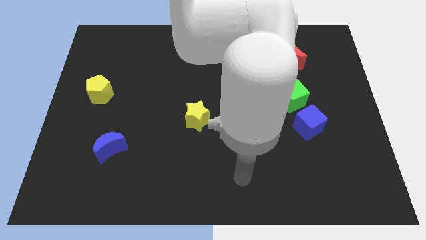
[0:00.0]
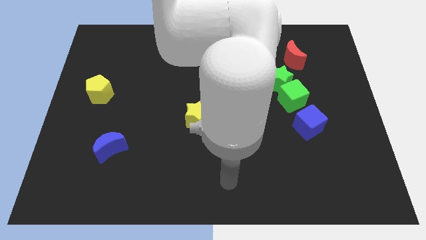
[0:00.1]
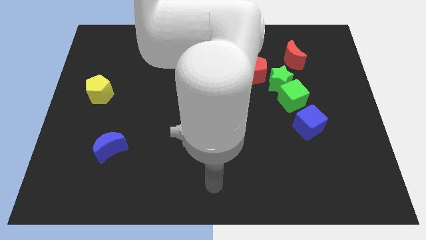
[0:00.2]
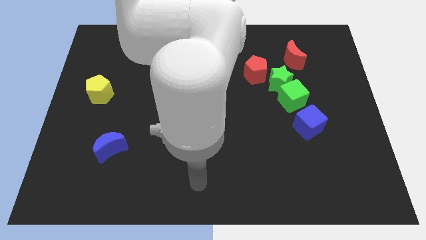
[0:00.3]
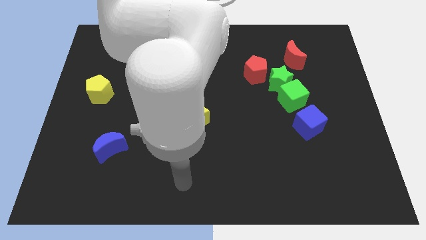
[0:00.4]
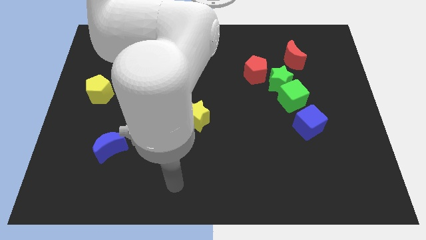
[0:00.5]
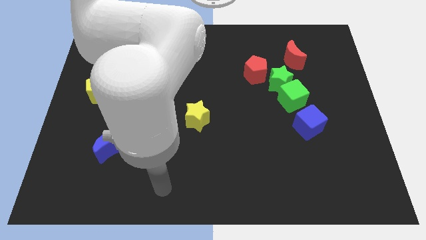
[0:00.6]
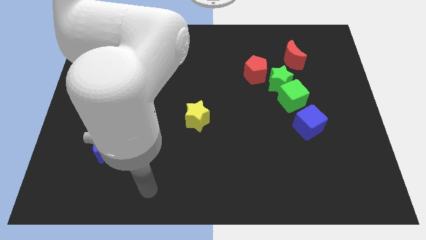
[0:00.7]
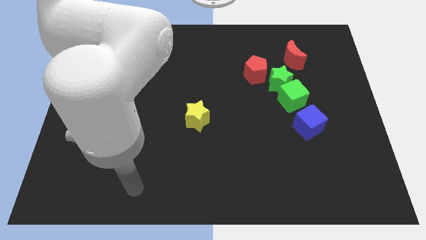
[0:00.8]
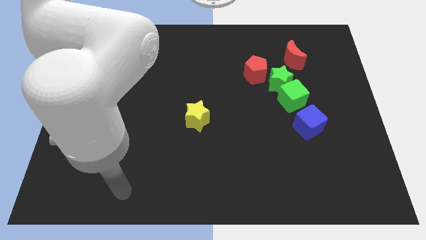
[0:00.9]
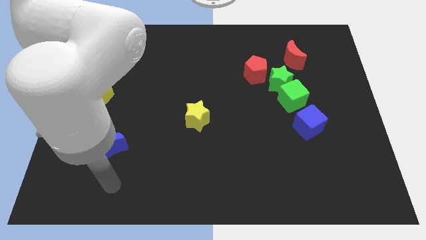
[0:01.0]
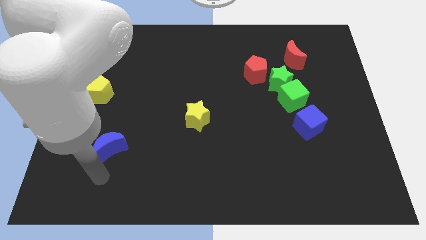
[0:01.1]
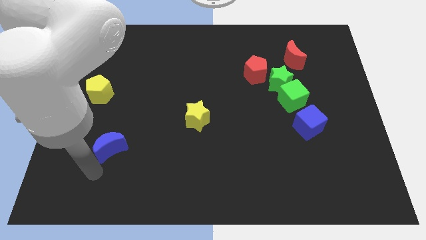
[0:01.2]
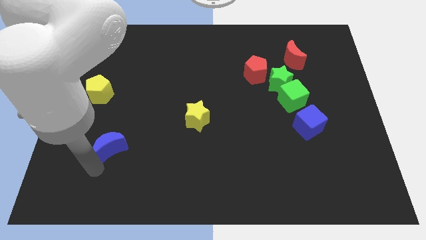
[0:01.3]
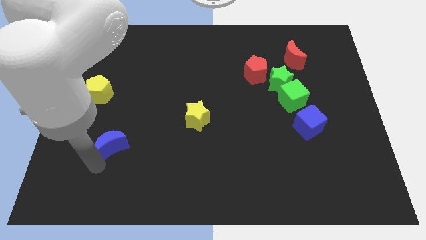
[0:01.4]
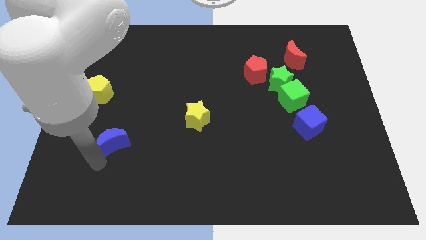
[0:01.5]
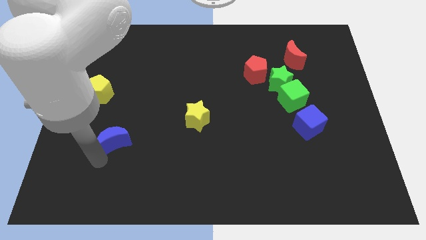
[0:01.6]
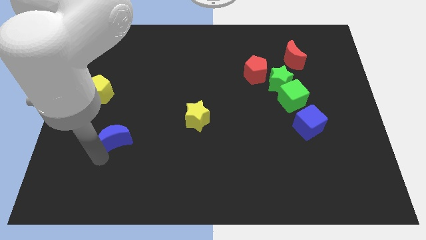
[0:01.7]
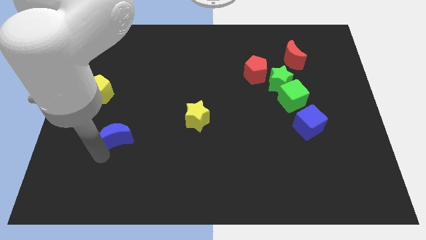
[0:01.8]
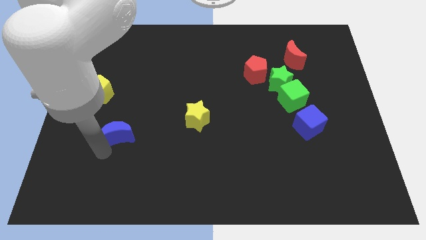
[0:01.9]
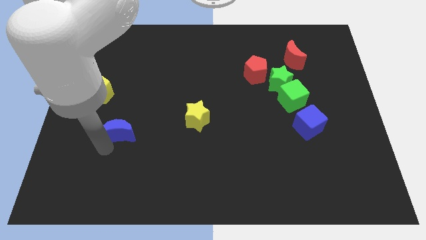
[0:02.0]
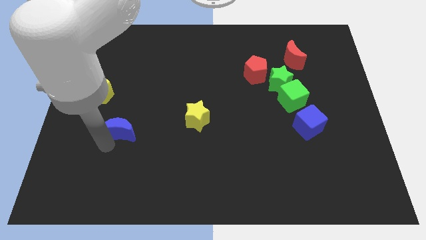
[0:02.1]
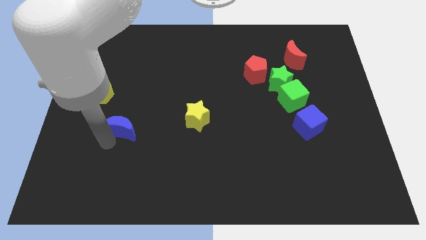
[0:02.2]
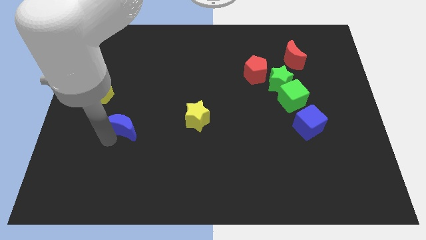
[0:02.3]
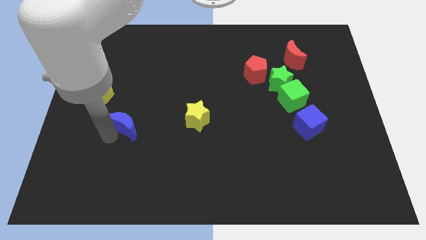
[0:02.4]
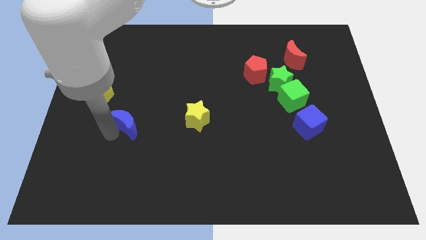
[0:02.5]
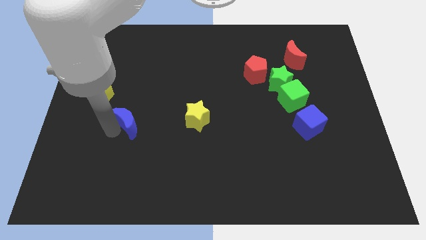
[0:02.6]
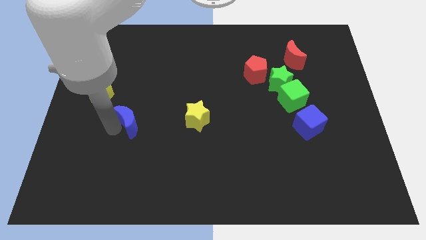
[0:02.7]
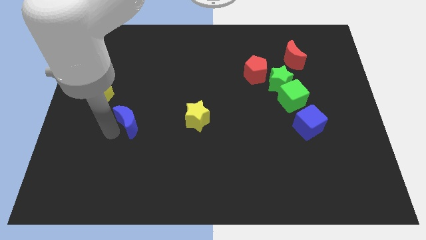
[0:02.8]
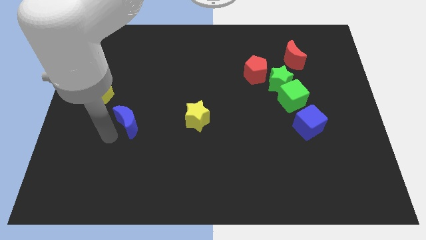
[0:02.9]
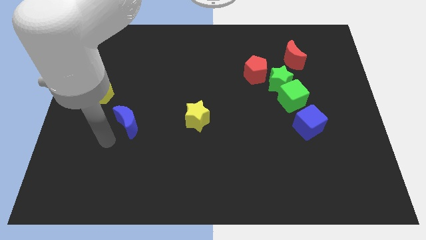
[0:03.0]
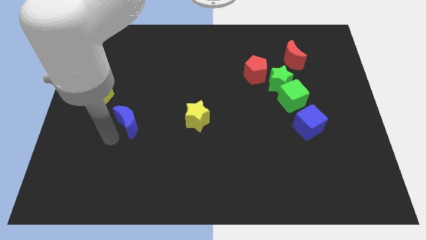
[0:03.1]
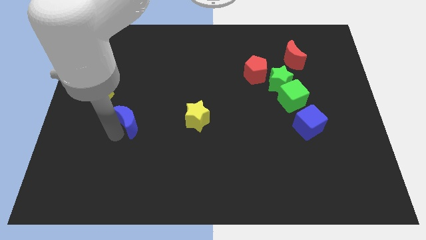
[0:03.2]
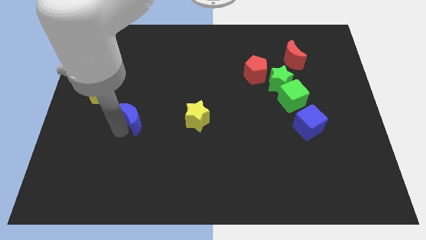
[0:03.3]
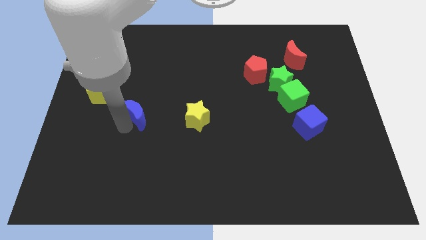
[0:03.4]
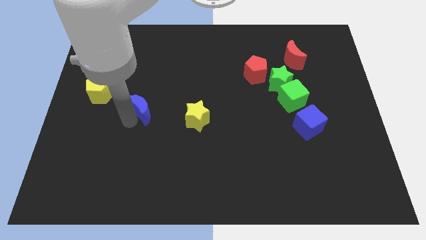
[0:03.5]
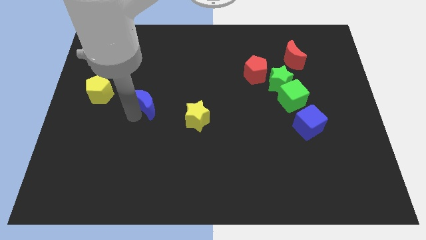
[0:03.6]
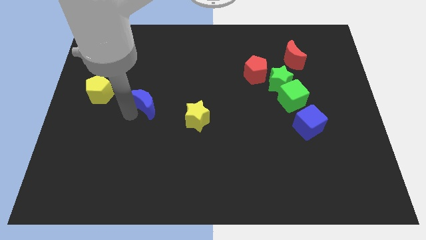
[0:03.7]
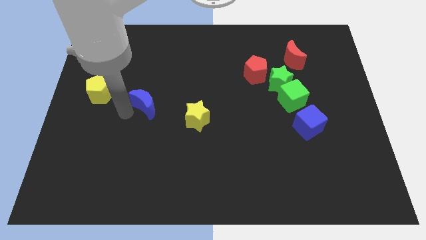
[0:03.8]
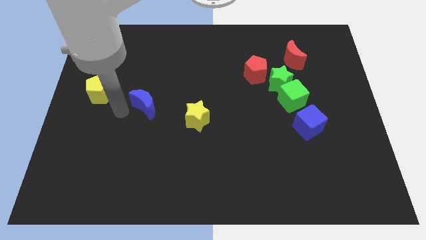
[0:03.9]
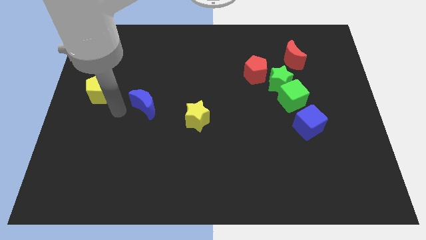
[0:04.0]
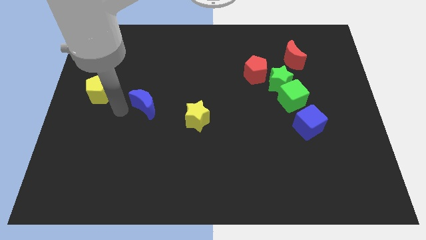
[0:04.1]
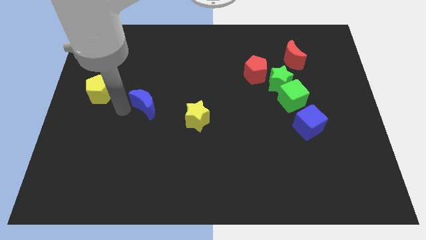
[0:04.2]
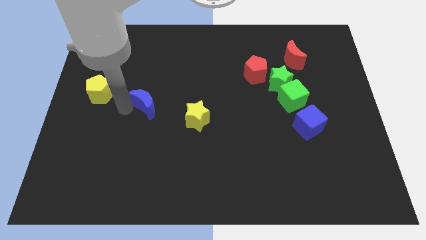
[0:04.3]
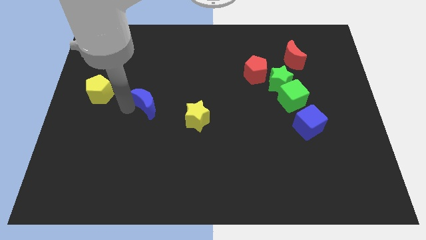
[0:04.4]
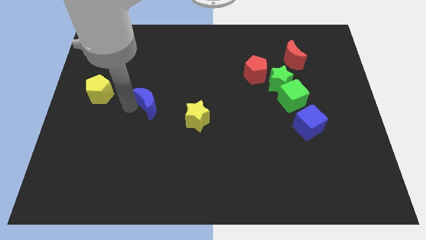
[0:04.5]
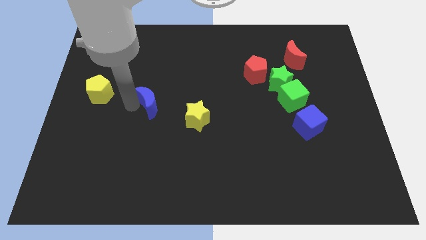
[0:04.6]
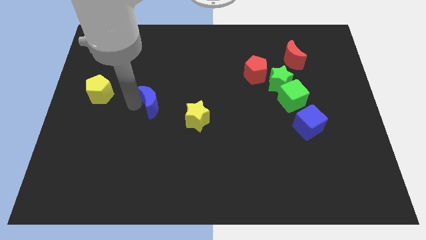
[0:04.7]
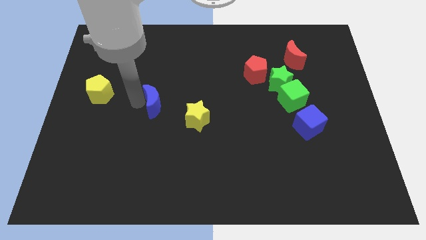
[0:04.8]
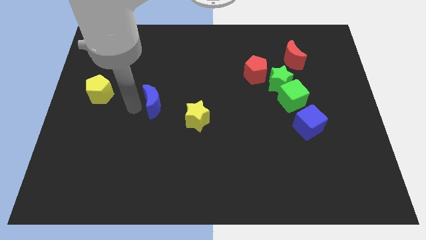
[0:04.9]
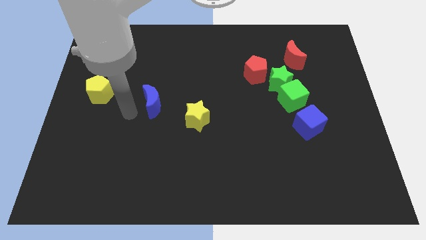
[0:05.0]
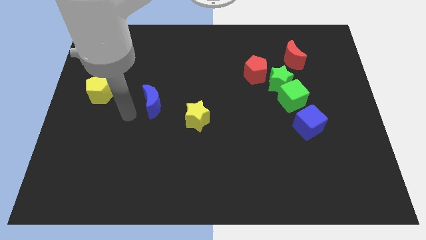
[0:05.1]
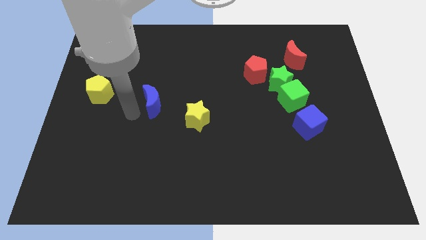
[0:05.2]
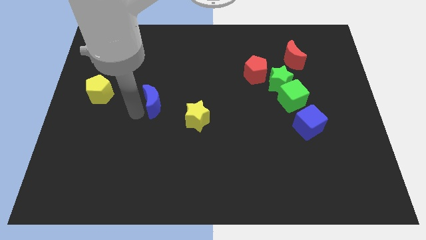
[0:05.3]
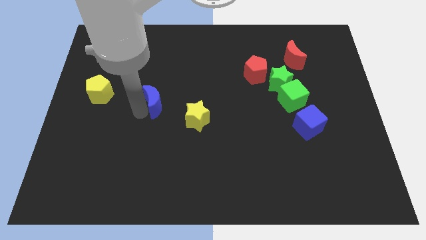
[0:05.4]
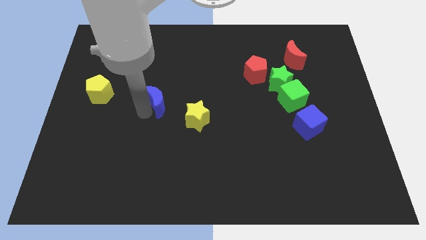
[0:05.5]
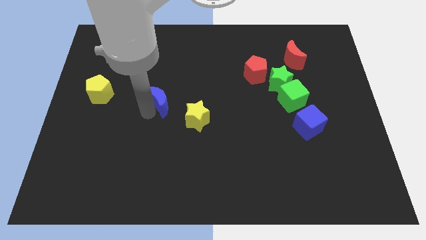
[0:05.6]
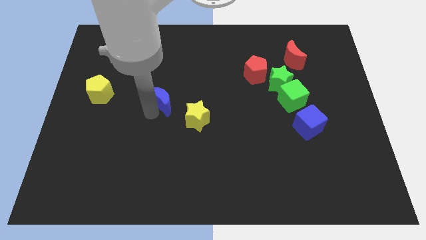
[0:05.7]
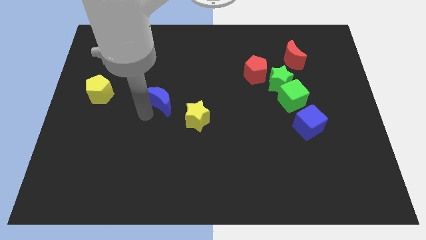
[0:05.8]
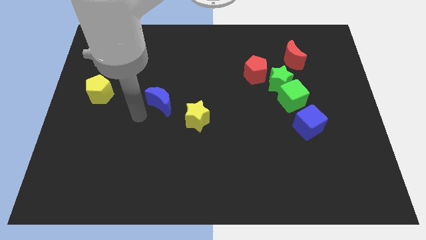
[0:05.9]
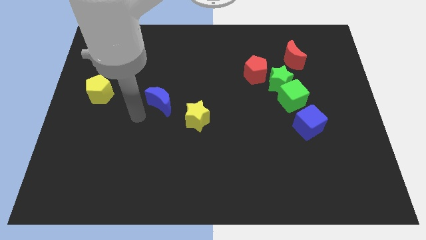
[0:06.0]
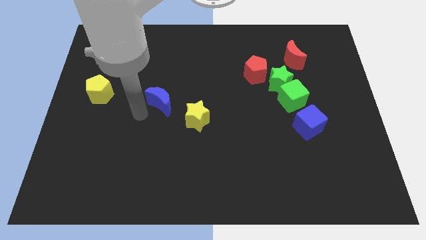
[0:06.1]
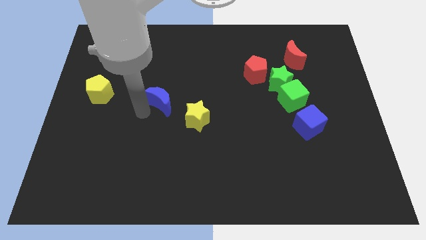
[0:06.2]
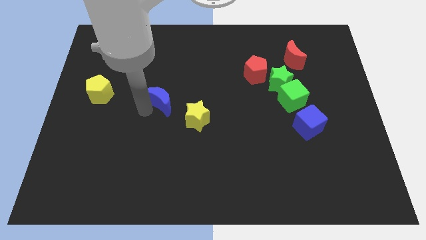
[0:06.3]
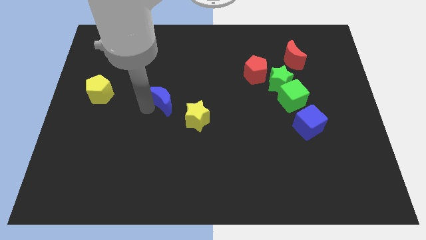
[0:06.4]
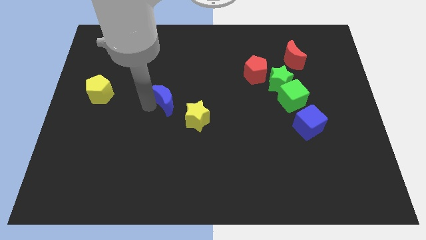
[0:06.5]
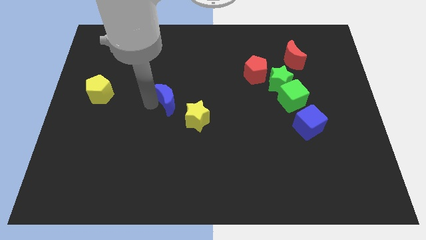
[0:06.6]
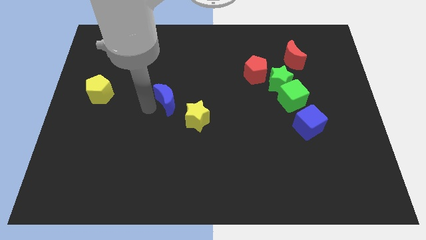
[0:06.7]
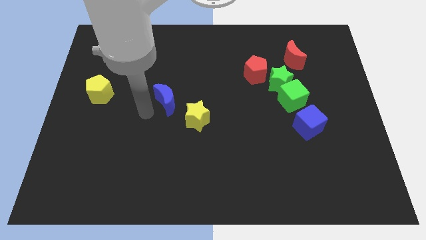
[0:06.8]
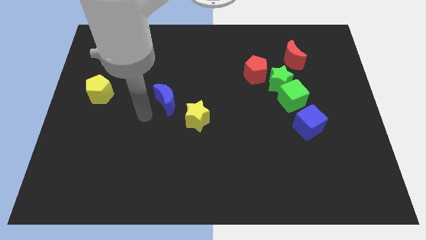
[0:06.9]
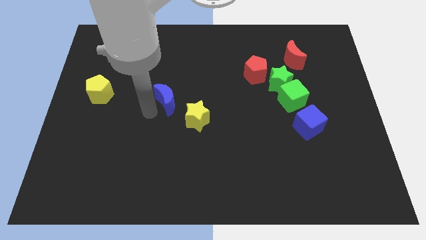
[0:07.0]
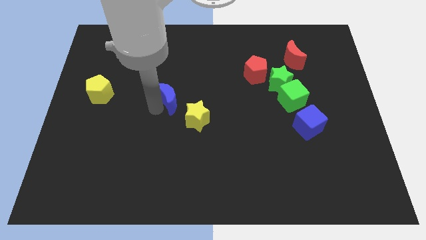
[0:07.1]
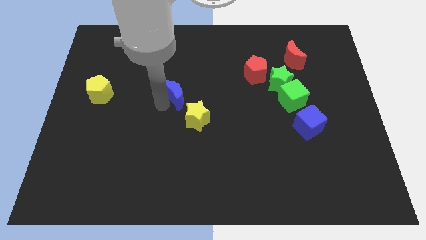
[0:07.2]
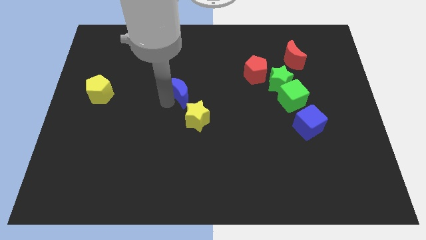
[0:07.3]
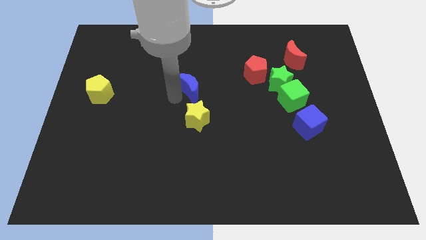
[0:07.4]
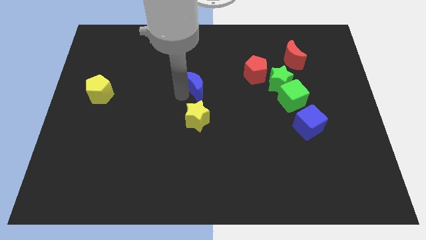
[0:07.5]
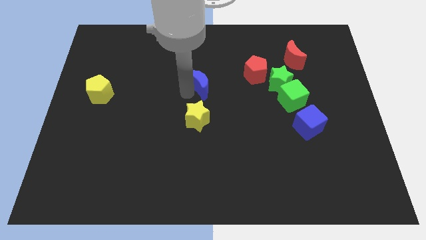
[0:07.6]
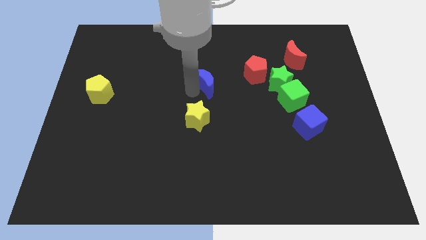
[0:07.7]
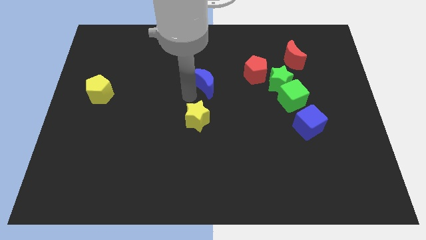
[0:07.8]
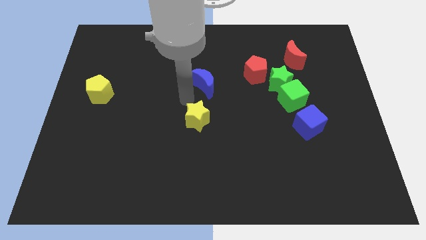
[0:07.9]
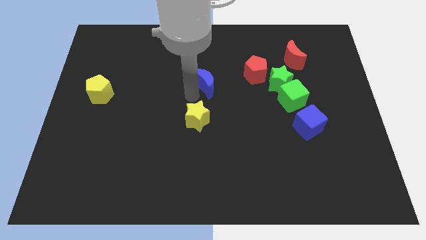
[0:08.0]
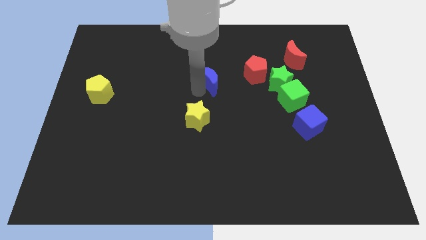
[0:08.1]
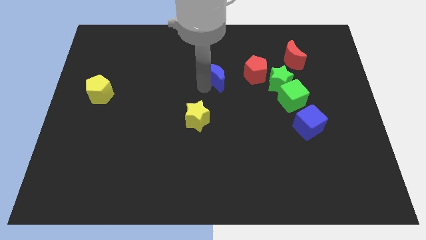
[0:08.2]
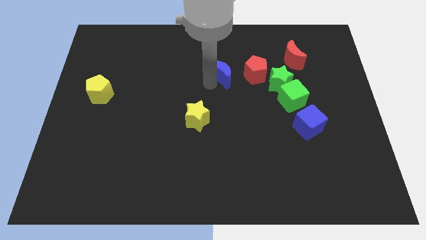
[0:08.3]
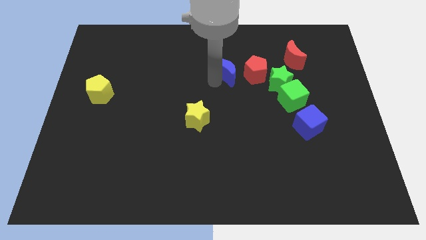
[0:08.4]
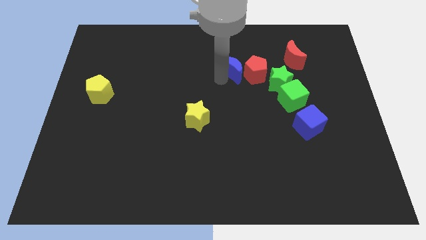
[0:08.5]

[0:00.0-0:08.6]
put the blue moon diagonally up and to the left of the red pentagon
